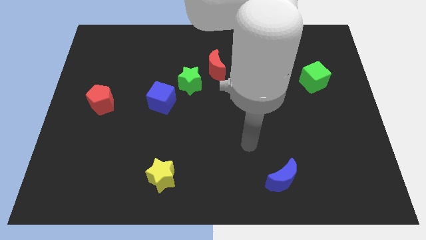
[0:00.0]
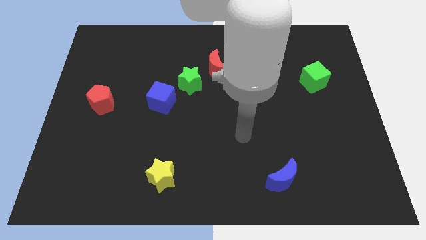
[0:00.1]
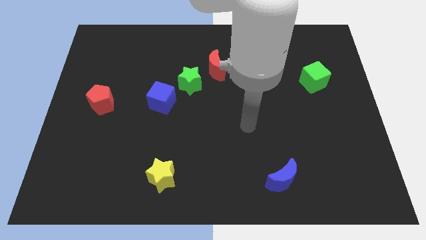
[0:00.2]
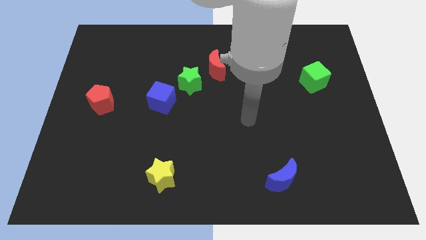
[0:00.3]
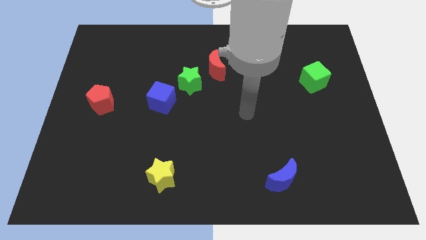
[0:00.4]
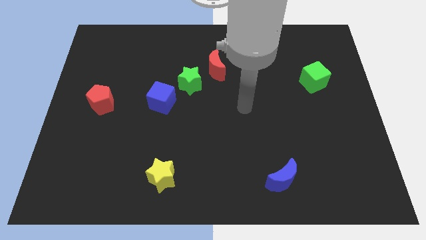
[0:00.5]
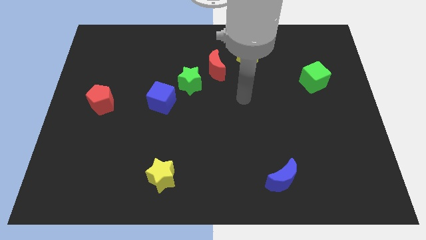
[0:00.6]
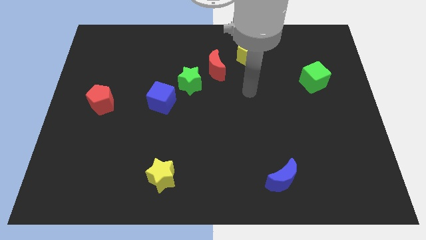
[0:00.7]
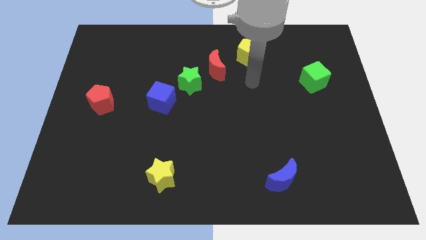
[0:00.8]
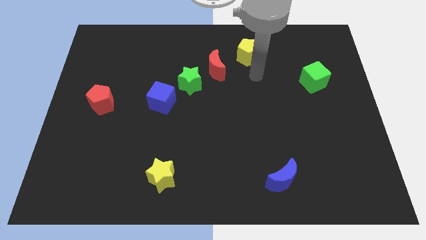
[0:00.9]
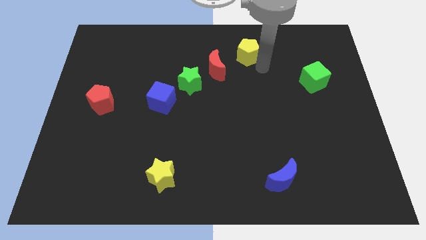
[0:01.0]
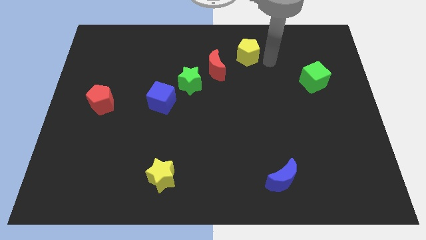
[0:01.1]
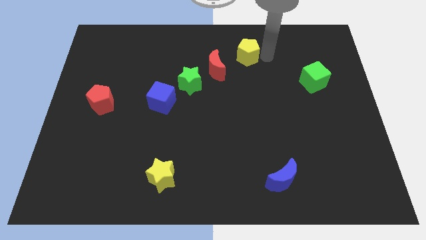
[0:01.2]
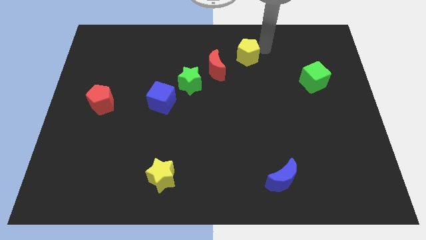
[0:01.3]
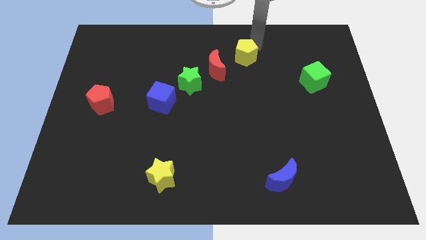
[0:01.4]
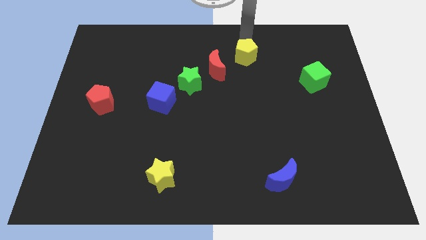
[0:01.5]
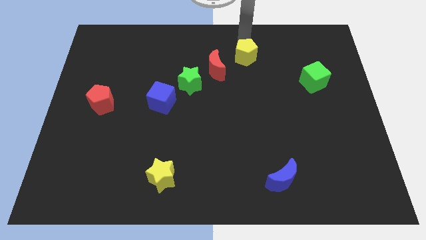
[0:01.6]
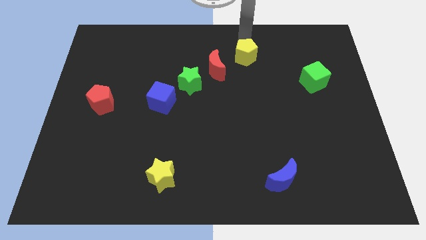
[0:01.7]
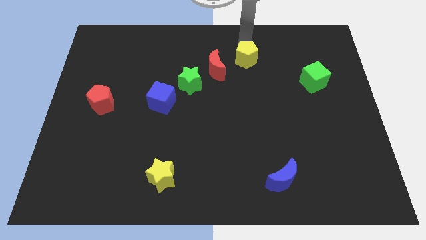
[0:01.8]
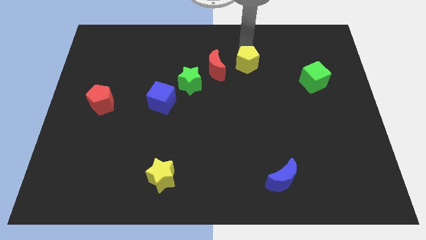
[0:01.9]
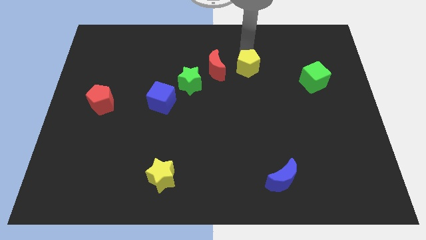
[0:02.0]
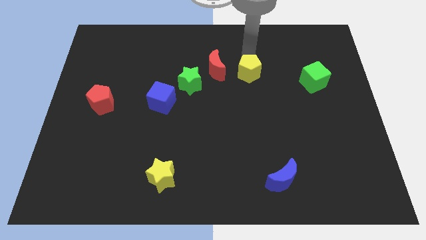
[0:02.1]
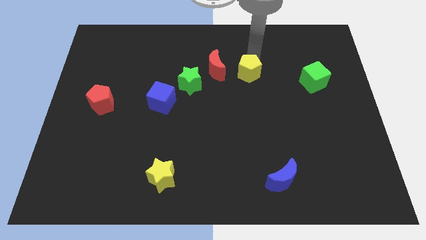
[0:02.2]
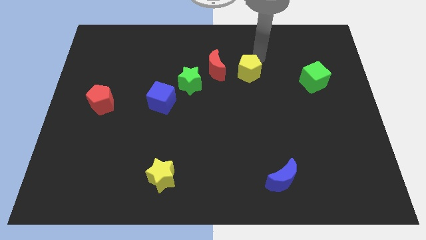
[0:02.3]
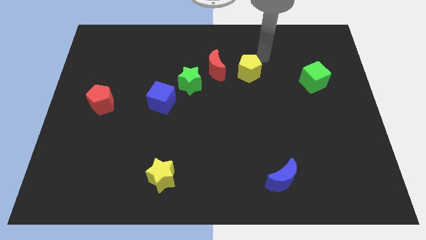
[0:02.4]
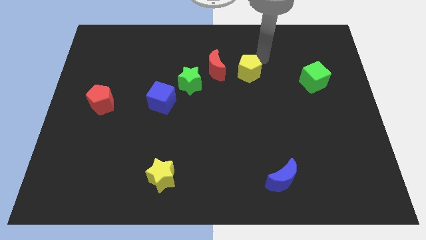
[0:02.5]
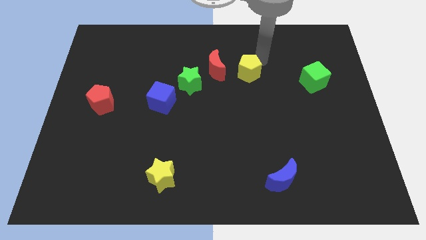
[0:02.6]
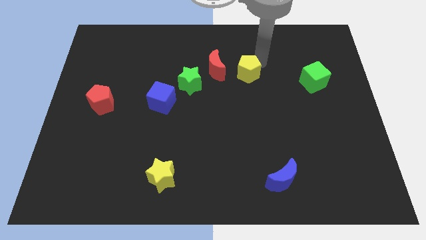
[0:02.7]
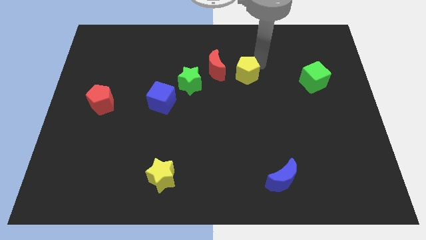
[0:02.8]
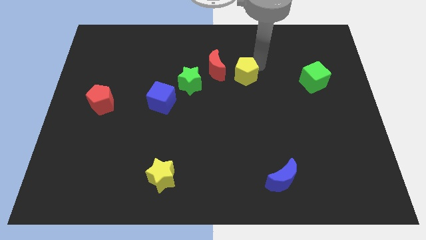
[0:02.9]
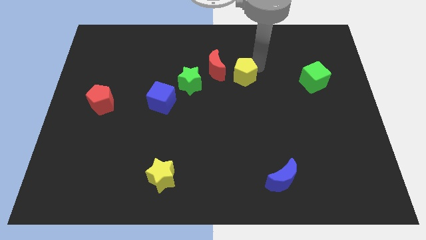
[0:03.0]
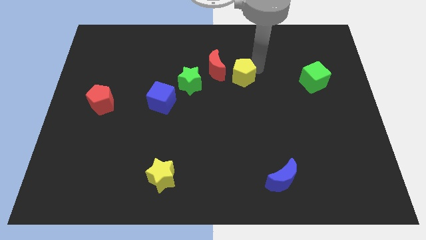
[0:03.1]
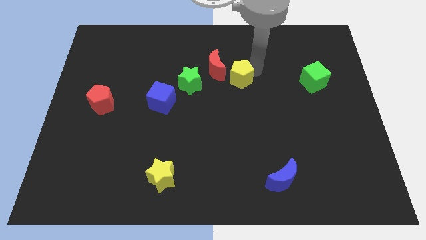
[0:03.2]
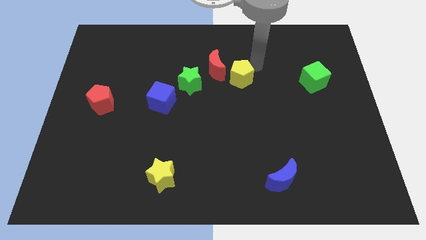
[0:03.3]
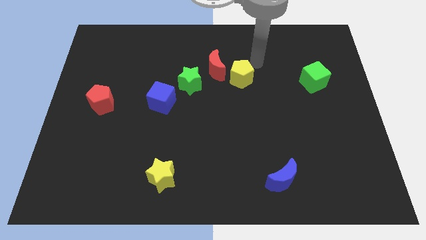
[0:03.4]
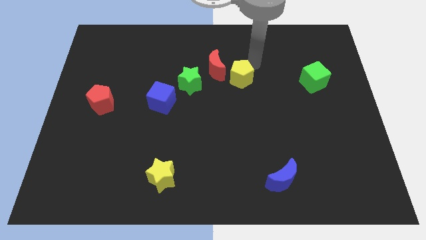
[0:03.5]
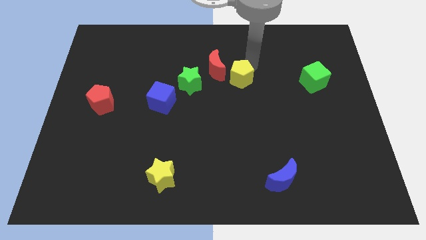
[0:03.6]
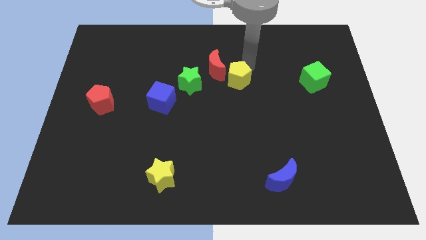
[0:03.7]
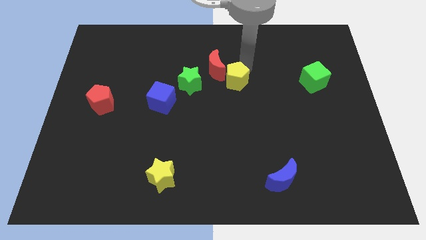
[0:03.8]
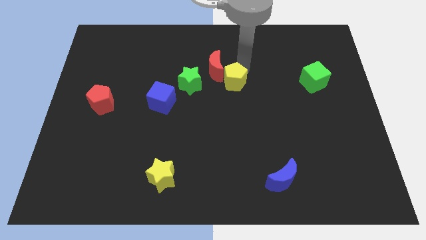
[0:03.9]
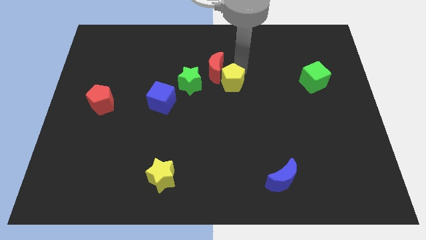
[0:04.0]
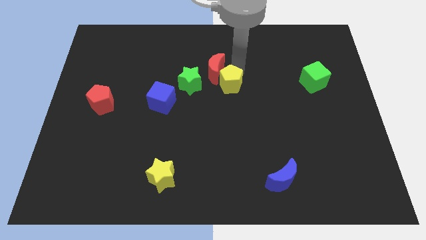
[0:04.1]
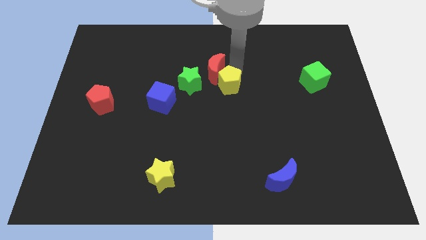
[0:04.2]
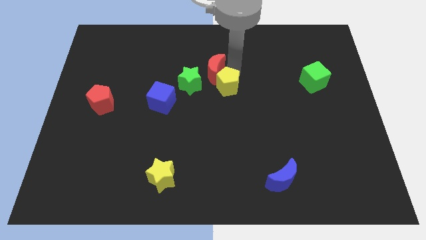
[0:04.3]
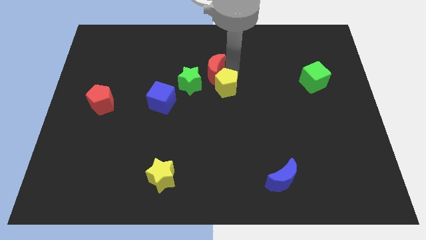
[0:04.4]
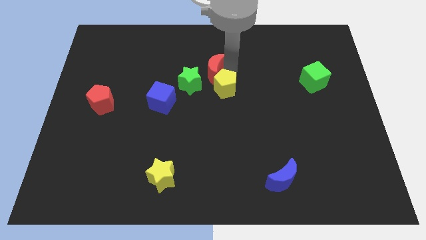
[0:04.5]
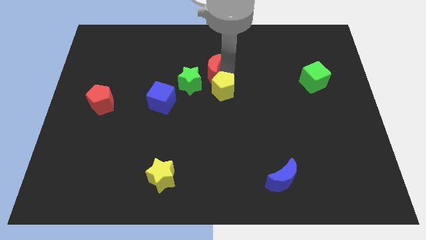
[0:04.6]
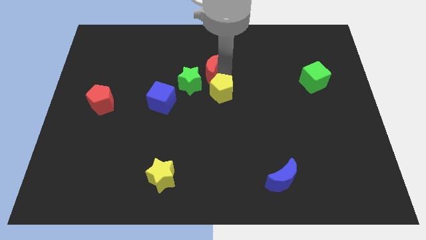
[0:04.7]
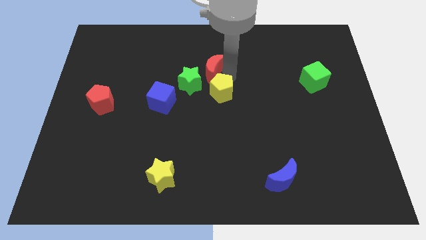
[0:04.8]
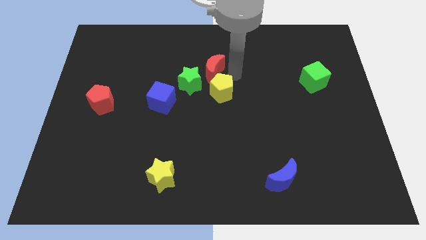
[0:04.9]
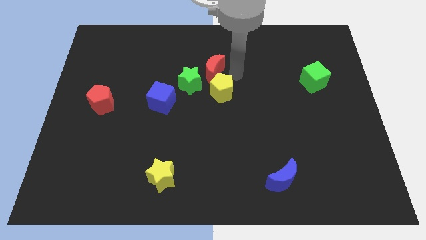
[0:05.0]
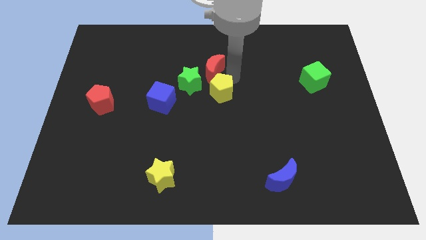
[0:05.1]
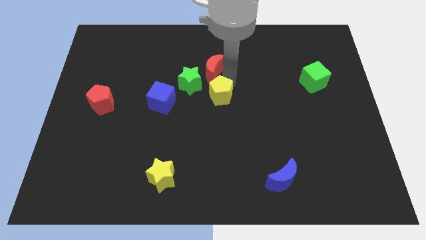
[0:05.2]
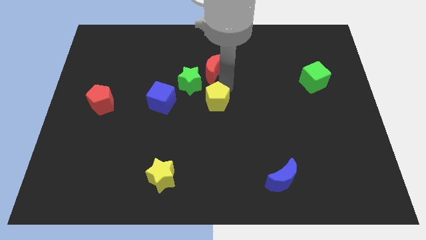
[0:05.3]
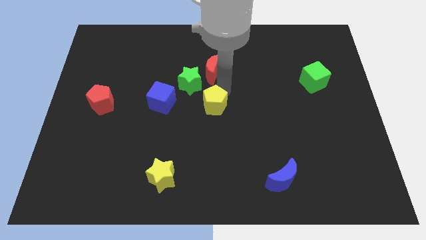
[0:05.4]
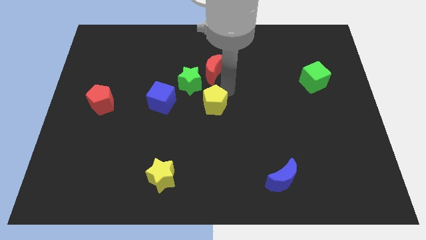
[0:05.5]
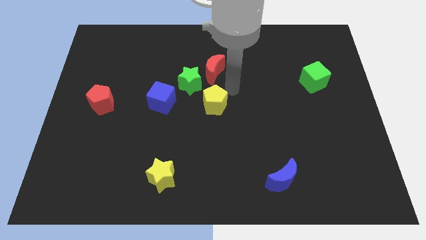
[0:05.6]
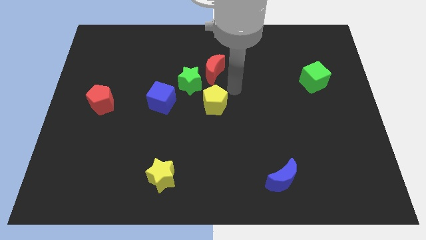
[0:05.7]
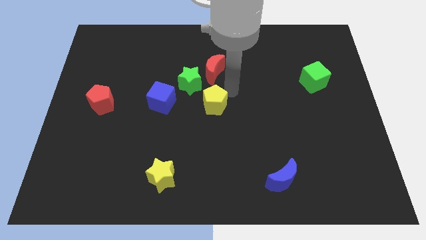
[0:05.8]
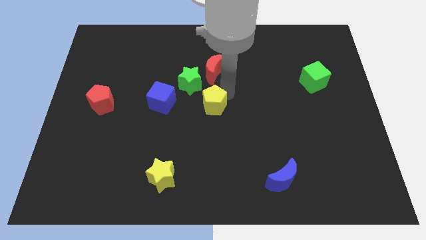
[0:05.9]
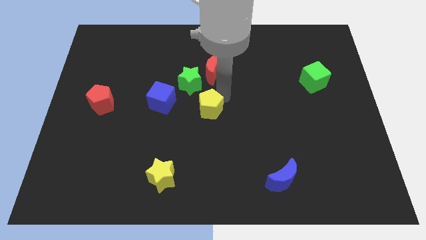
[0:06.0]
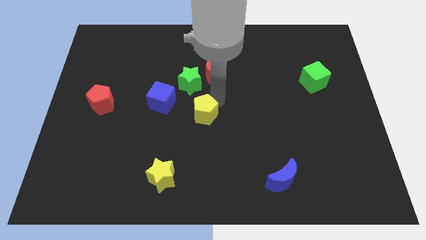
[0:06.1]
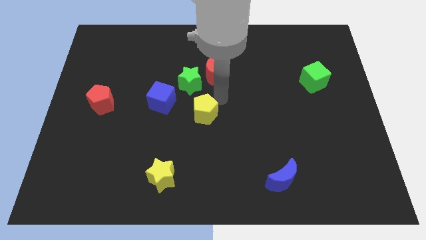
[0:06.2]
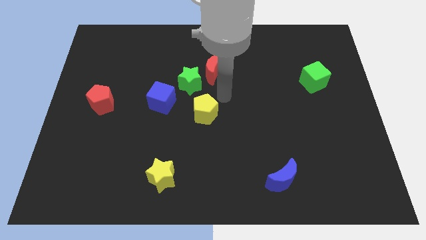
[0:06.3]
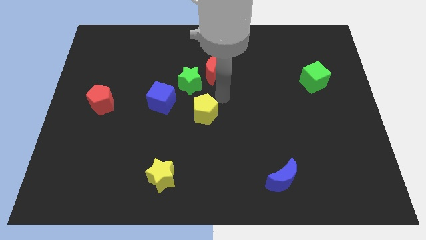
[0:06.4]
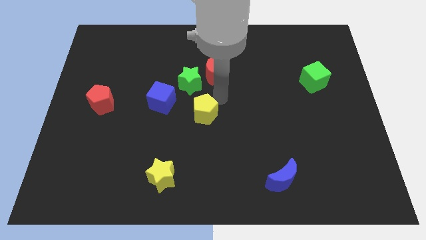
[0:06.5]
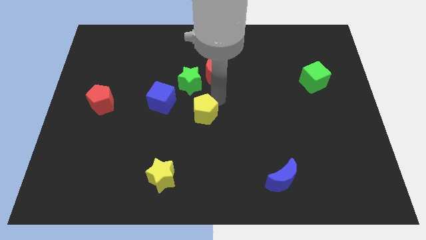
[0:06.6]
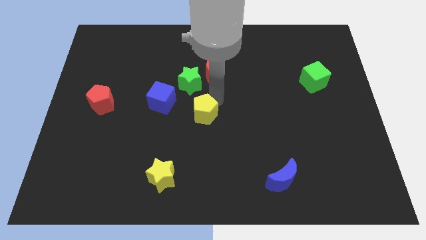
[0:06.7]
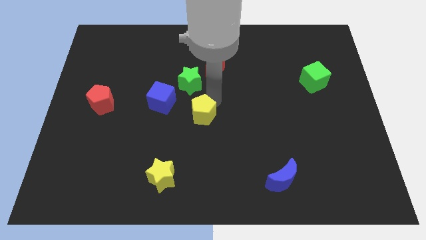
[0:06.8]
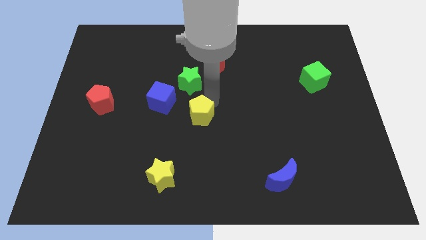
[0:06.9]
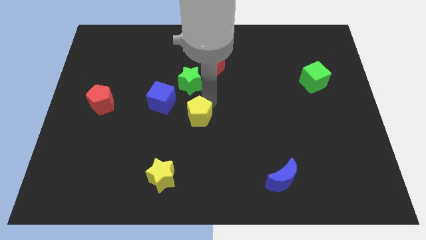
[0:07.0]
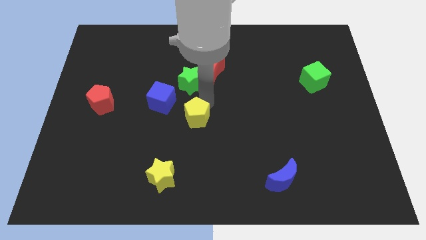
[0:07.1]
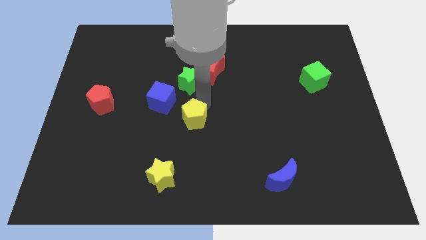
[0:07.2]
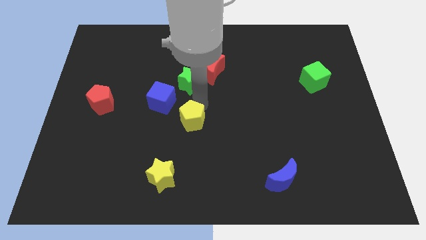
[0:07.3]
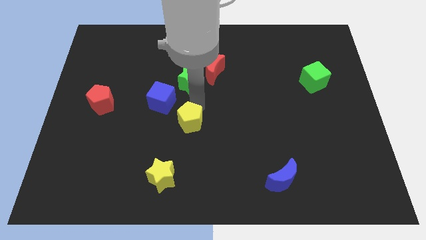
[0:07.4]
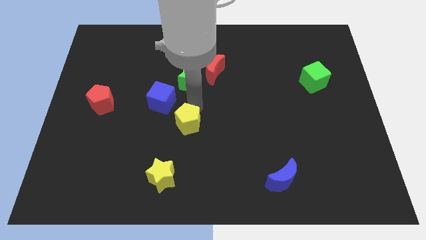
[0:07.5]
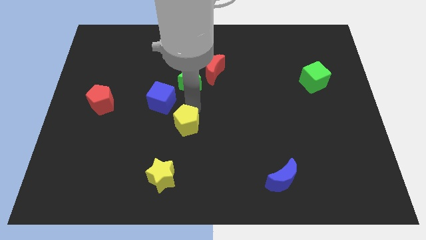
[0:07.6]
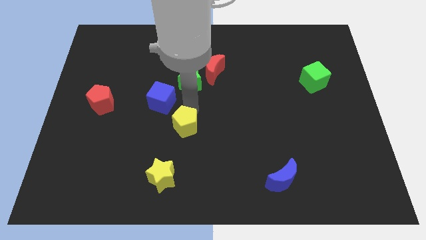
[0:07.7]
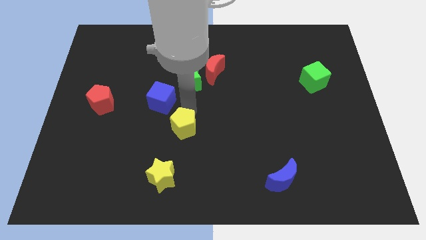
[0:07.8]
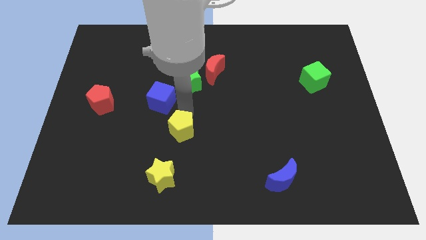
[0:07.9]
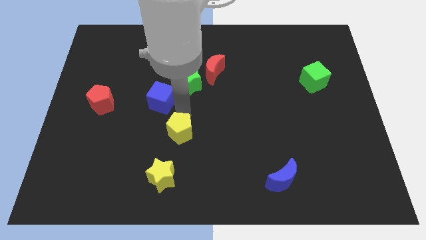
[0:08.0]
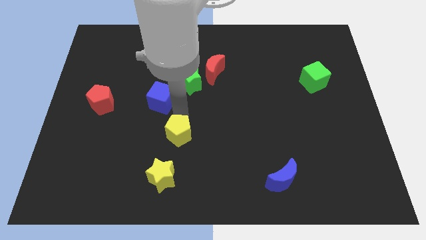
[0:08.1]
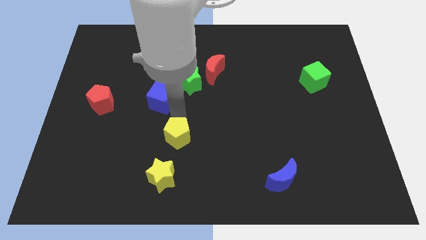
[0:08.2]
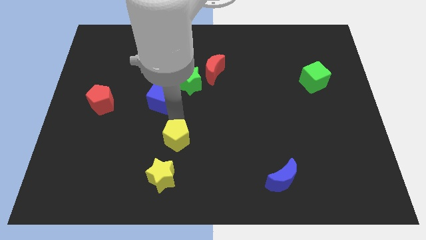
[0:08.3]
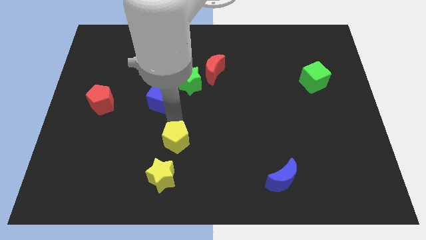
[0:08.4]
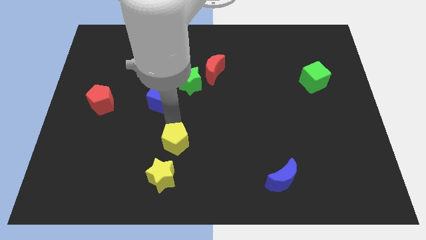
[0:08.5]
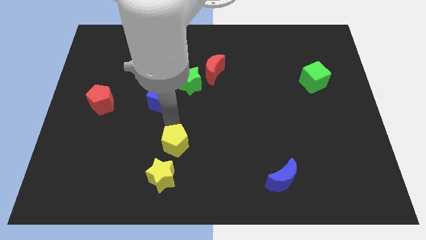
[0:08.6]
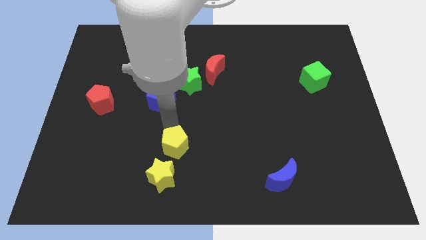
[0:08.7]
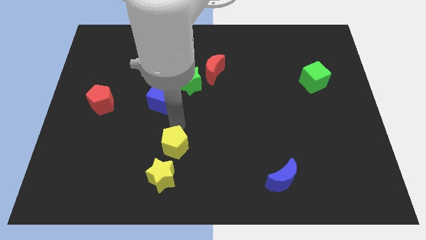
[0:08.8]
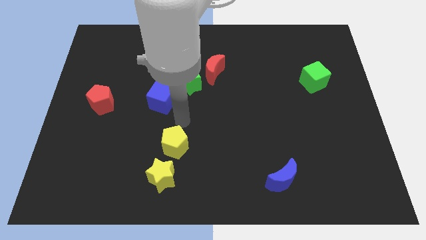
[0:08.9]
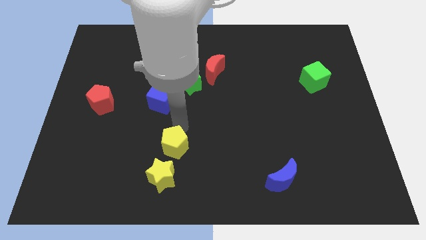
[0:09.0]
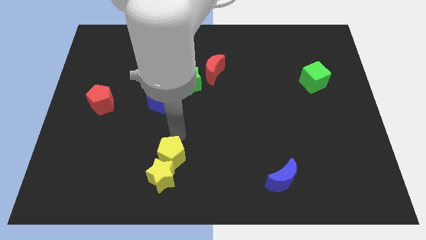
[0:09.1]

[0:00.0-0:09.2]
push the yellow pentagon towards the yellow star
